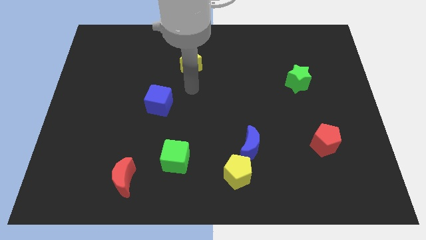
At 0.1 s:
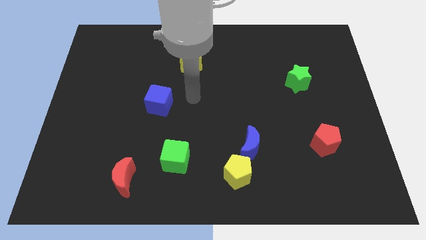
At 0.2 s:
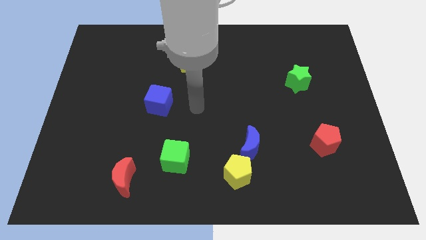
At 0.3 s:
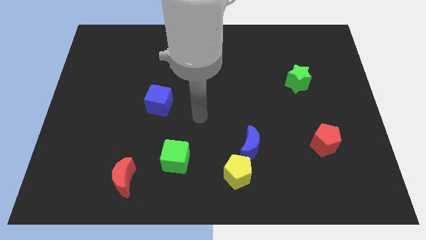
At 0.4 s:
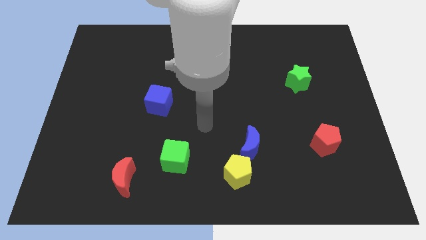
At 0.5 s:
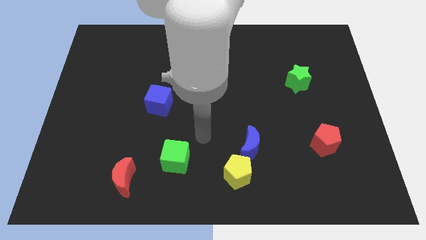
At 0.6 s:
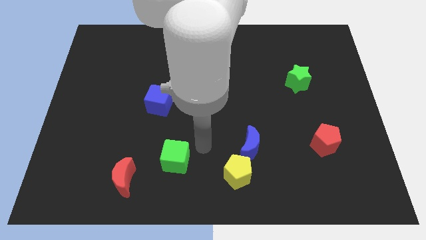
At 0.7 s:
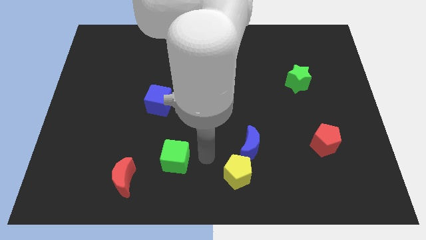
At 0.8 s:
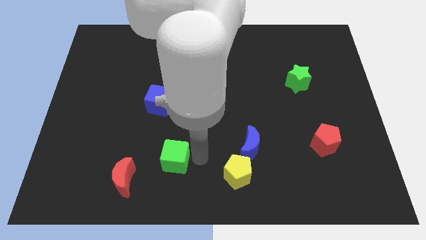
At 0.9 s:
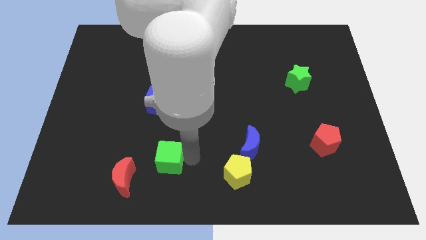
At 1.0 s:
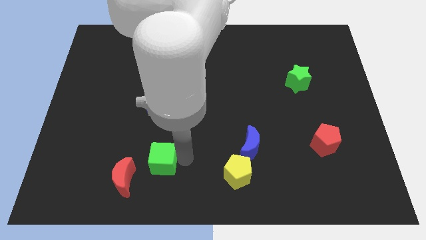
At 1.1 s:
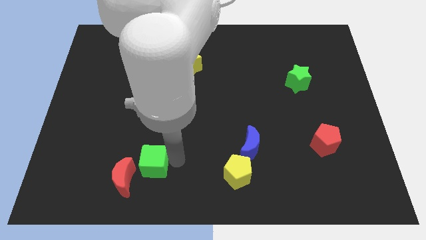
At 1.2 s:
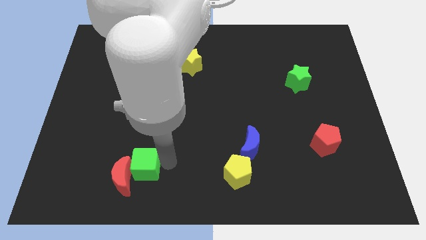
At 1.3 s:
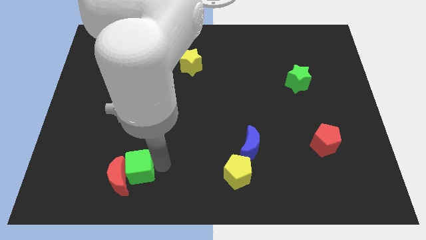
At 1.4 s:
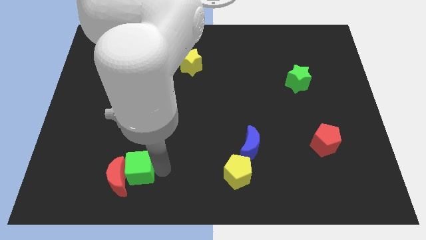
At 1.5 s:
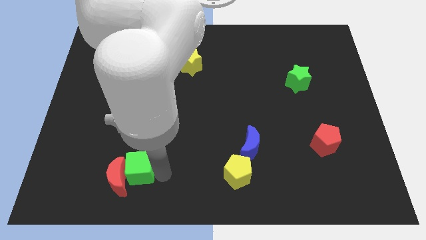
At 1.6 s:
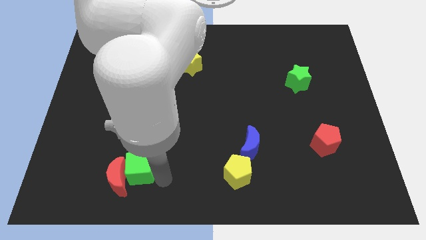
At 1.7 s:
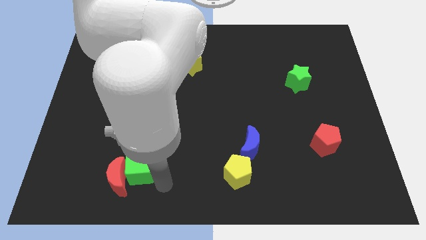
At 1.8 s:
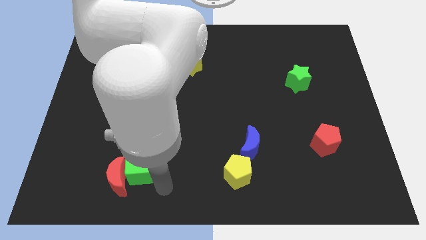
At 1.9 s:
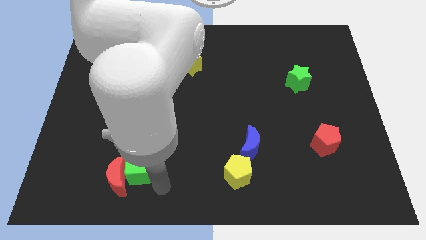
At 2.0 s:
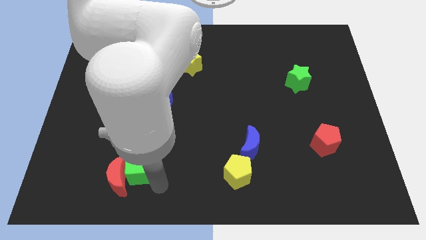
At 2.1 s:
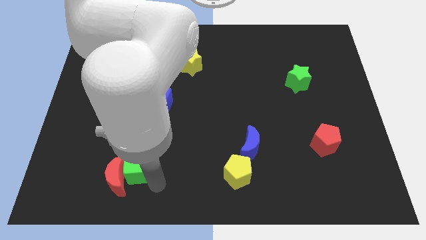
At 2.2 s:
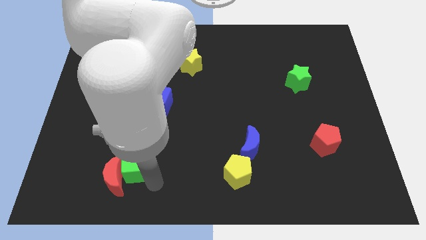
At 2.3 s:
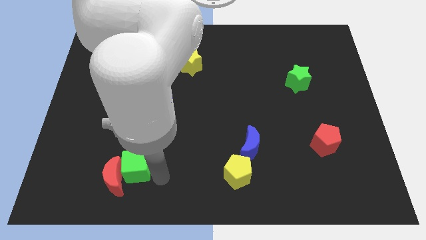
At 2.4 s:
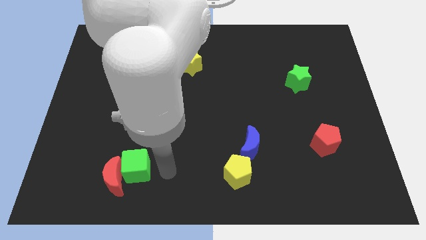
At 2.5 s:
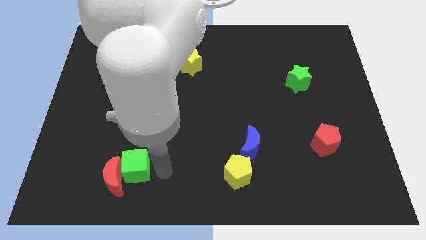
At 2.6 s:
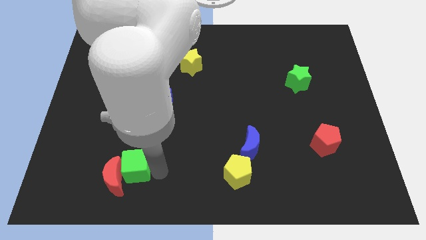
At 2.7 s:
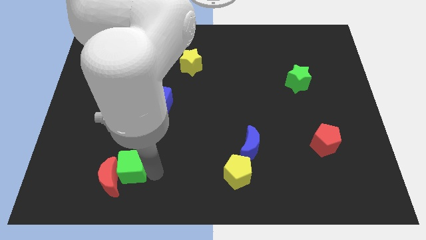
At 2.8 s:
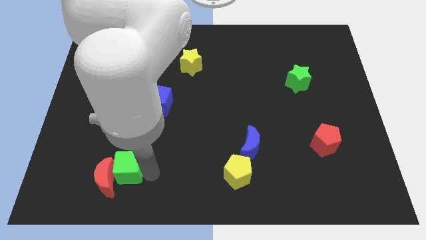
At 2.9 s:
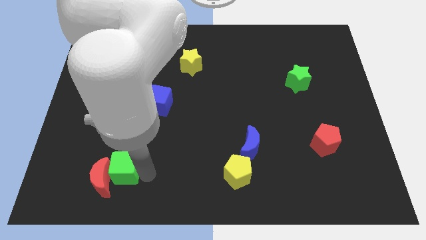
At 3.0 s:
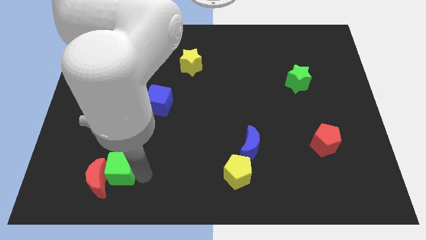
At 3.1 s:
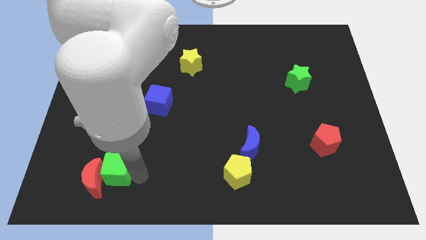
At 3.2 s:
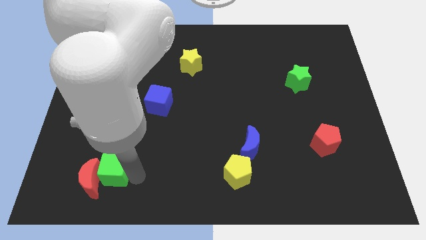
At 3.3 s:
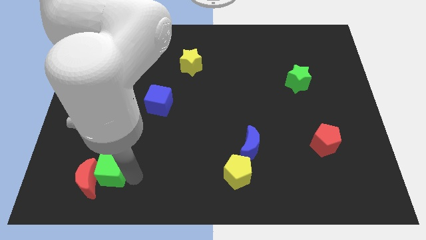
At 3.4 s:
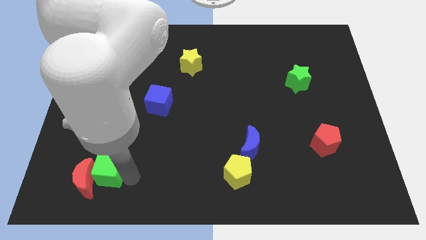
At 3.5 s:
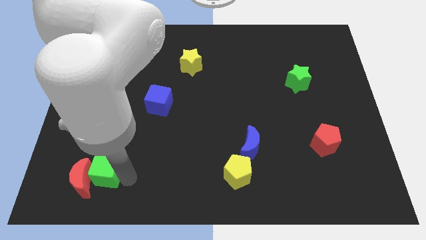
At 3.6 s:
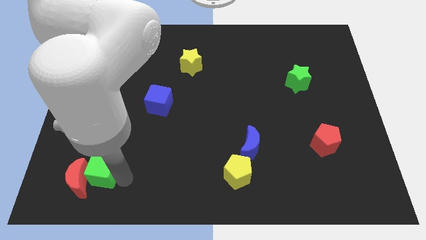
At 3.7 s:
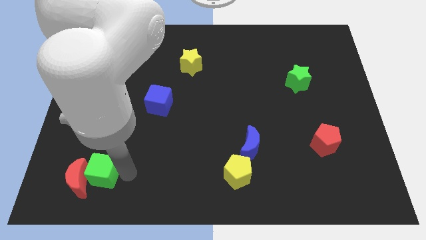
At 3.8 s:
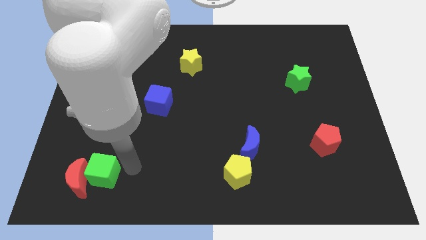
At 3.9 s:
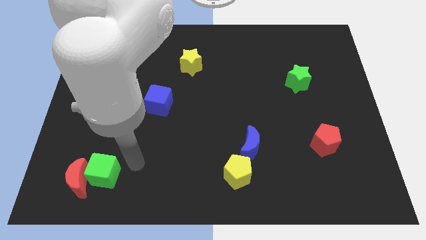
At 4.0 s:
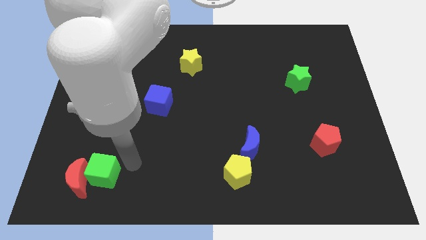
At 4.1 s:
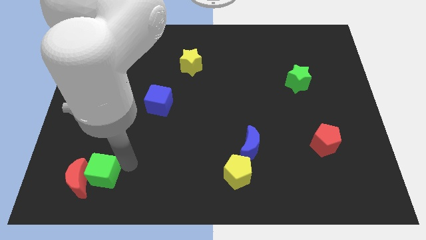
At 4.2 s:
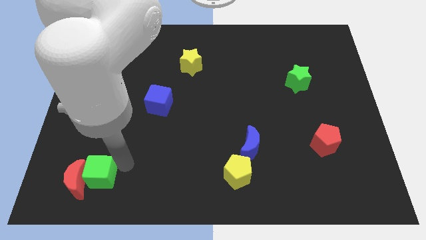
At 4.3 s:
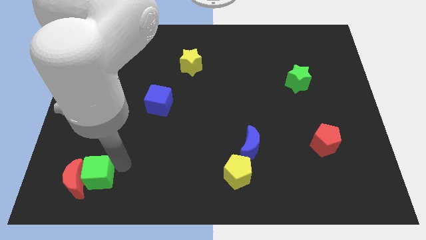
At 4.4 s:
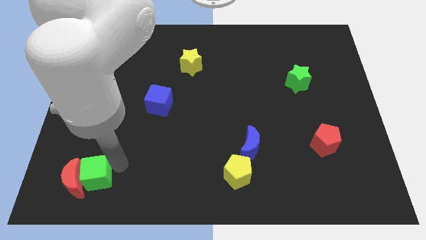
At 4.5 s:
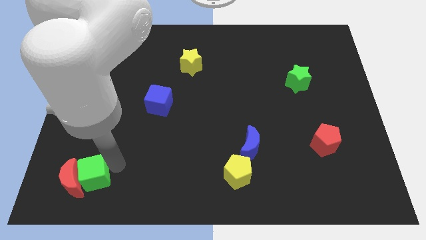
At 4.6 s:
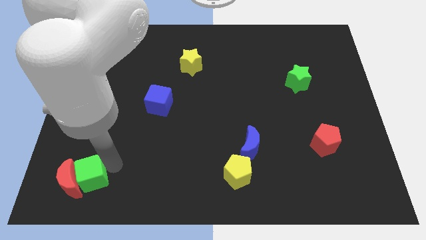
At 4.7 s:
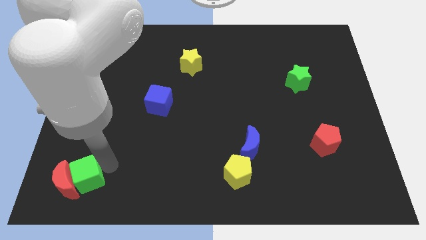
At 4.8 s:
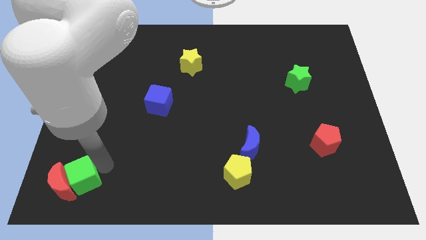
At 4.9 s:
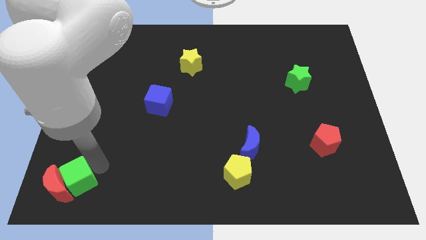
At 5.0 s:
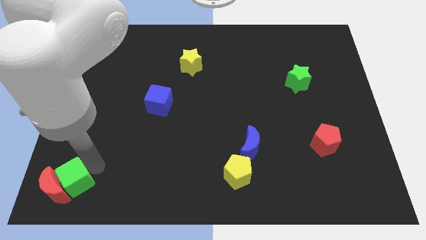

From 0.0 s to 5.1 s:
slide the green cube to the lower left corner

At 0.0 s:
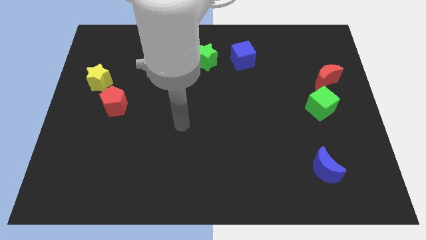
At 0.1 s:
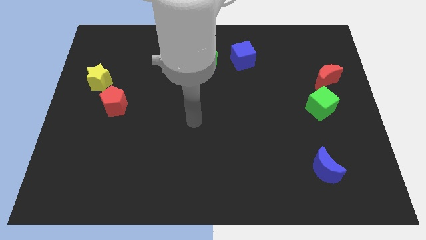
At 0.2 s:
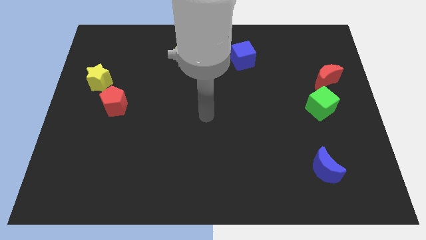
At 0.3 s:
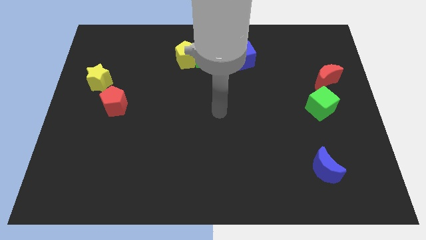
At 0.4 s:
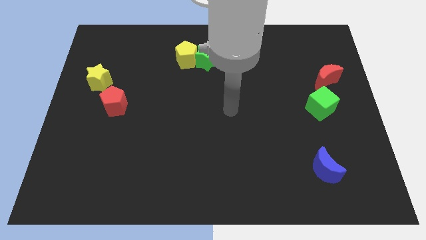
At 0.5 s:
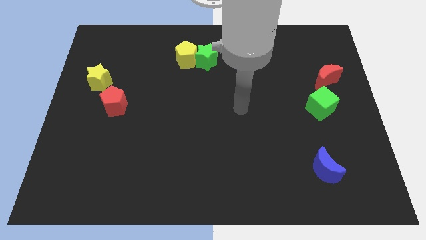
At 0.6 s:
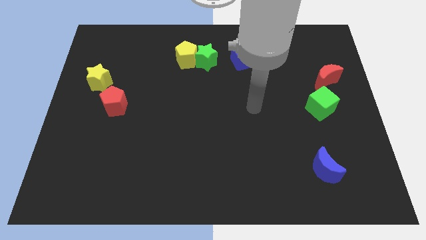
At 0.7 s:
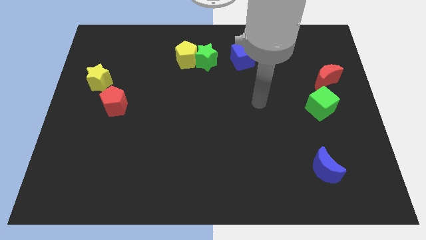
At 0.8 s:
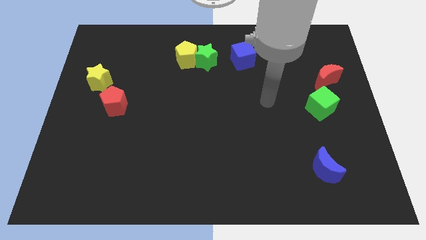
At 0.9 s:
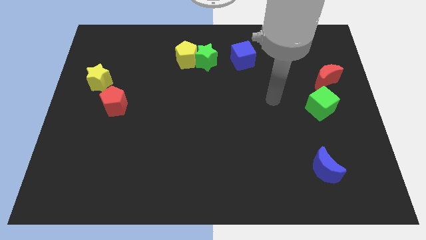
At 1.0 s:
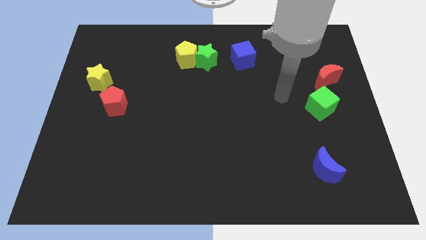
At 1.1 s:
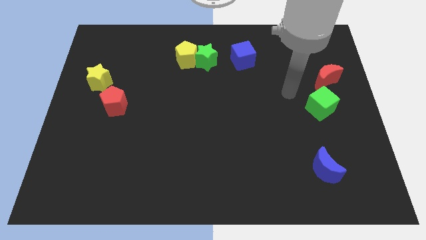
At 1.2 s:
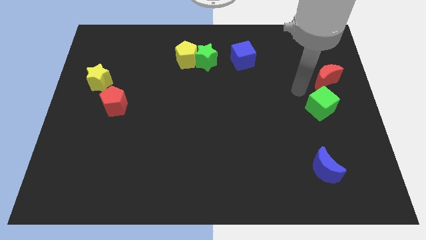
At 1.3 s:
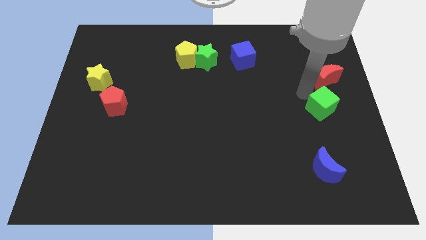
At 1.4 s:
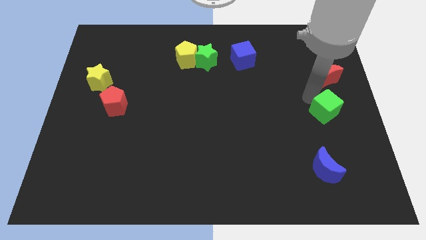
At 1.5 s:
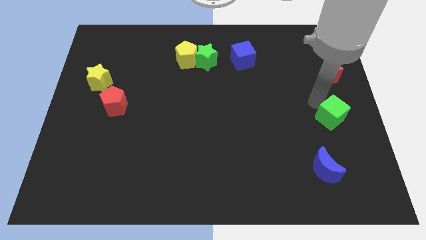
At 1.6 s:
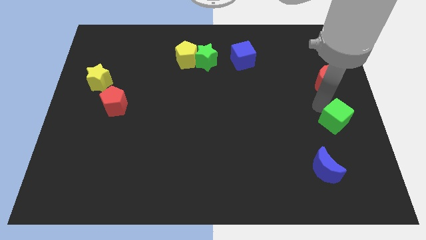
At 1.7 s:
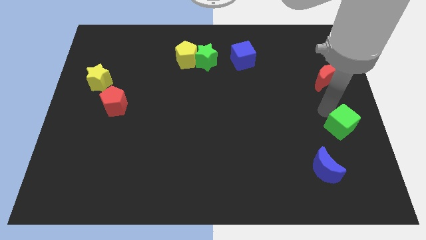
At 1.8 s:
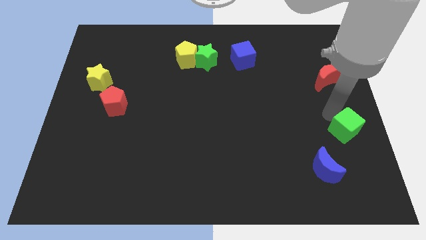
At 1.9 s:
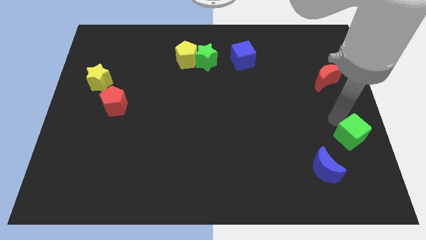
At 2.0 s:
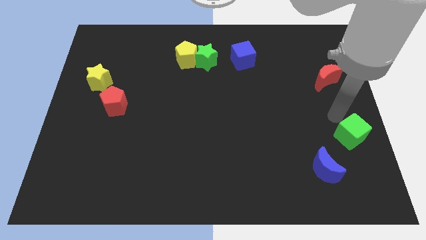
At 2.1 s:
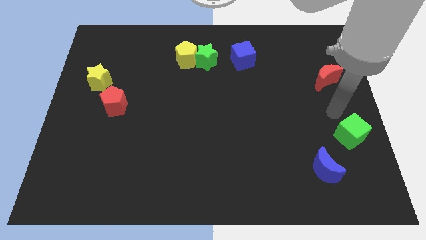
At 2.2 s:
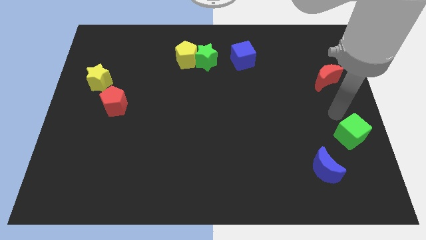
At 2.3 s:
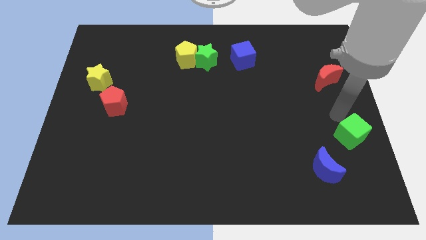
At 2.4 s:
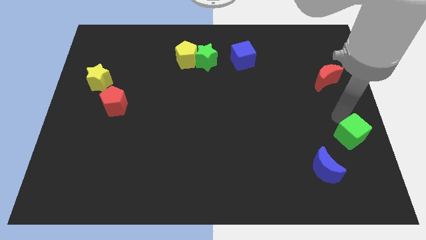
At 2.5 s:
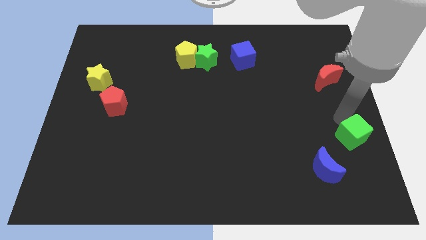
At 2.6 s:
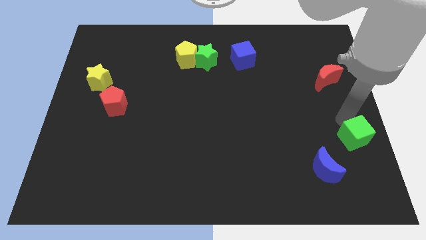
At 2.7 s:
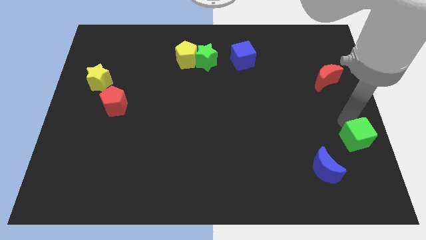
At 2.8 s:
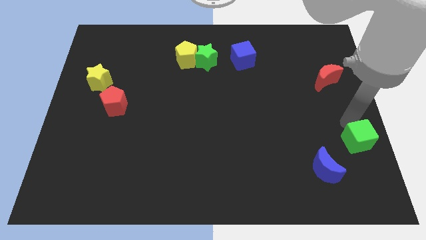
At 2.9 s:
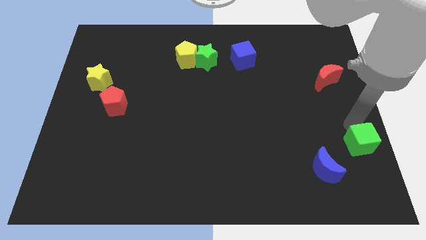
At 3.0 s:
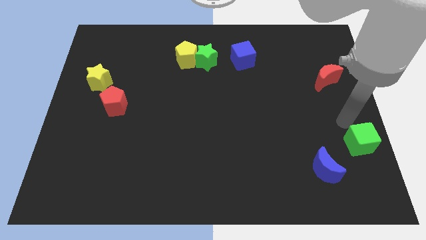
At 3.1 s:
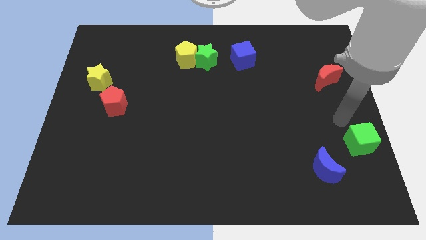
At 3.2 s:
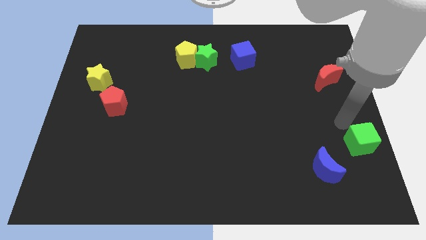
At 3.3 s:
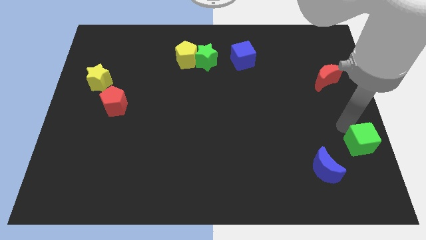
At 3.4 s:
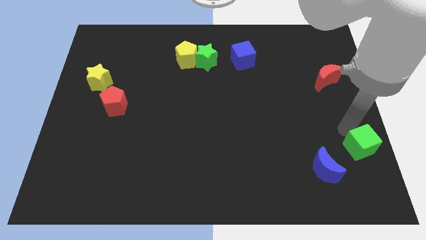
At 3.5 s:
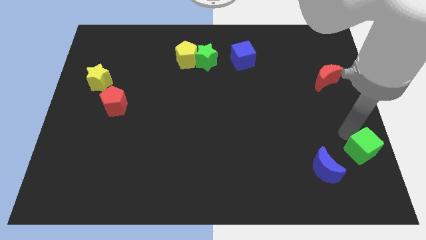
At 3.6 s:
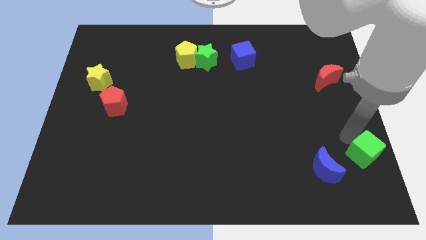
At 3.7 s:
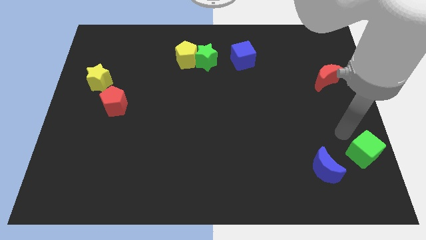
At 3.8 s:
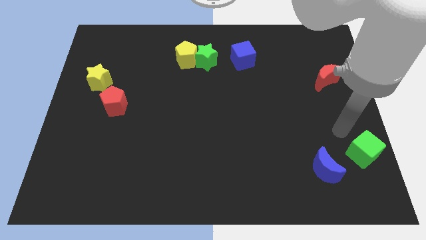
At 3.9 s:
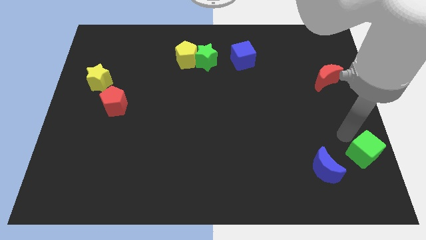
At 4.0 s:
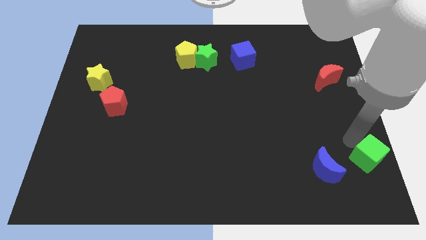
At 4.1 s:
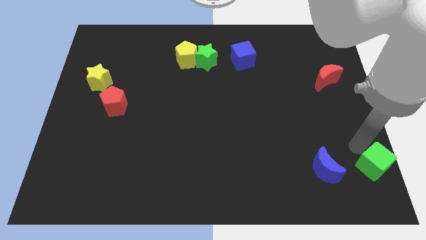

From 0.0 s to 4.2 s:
put the green cube to the bottom right
